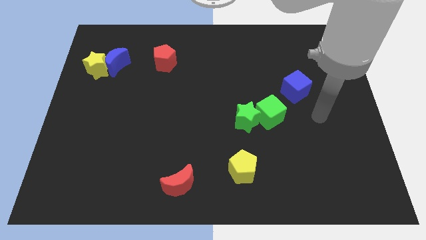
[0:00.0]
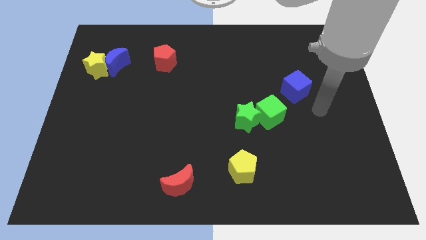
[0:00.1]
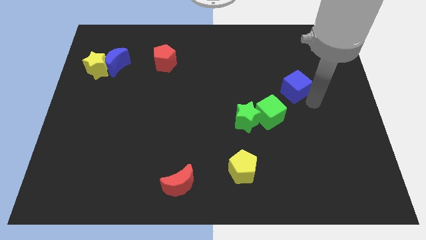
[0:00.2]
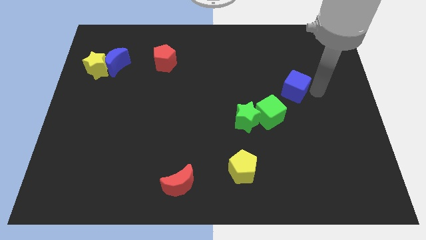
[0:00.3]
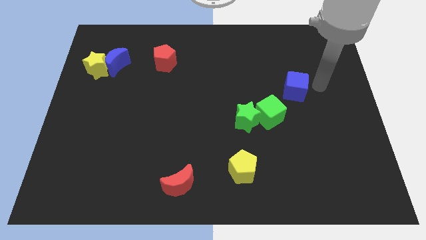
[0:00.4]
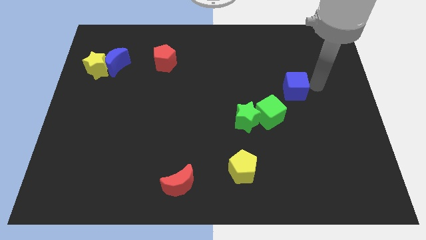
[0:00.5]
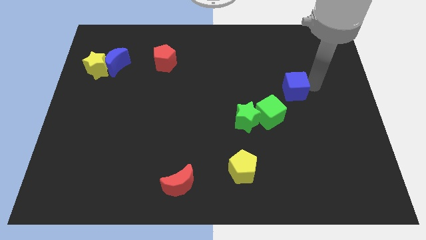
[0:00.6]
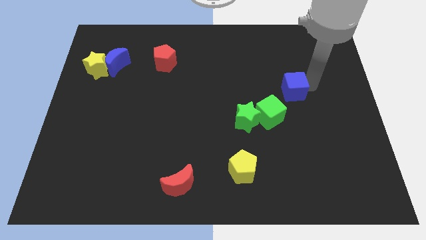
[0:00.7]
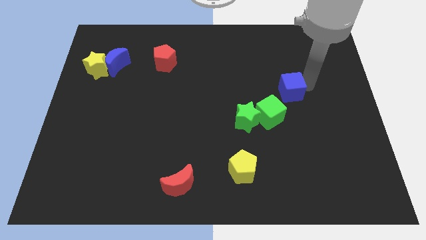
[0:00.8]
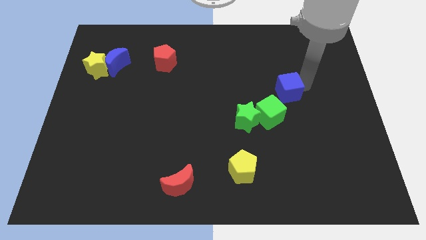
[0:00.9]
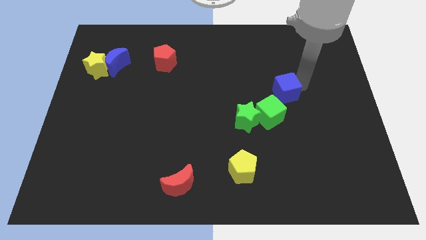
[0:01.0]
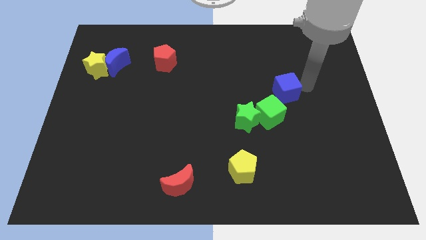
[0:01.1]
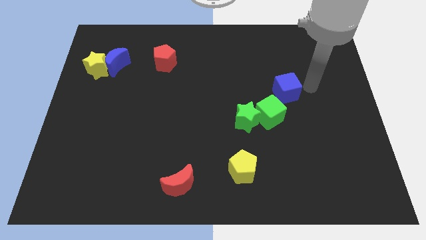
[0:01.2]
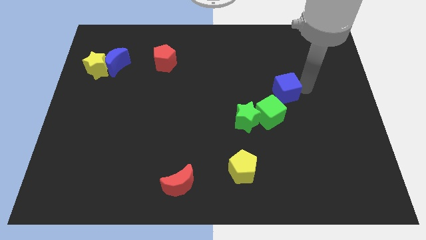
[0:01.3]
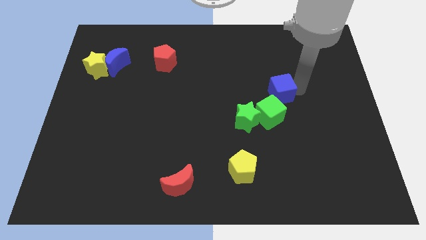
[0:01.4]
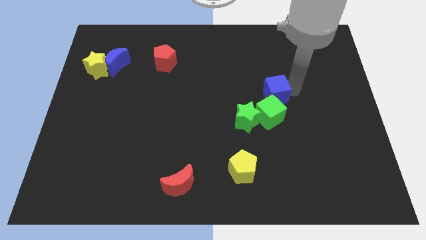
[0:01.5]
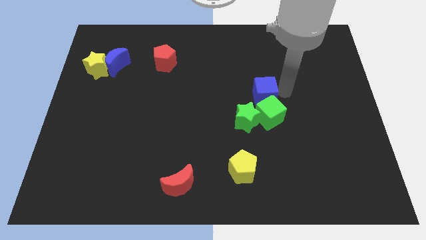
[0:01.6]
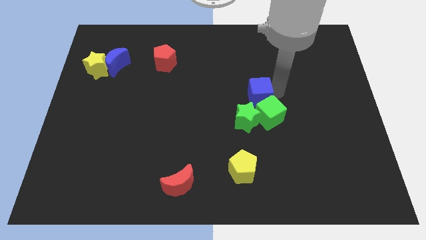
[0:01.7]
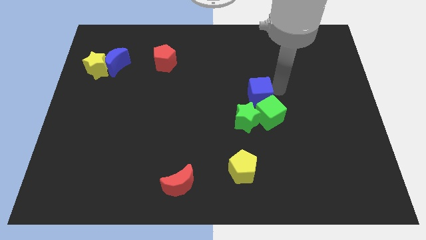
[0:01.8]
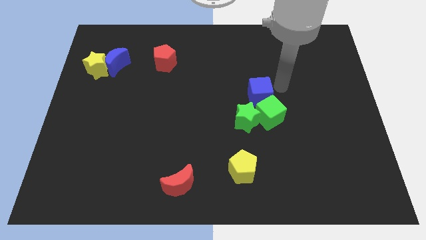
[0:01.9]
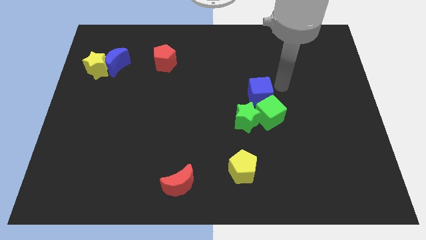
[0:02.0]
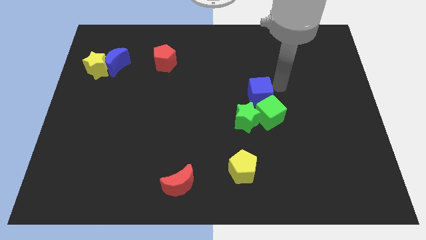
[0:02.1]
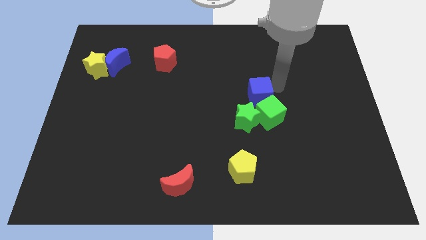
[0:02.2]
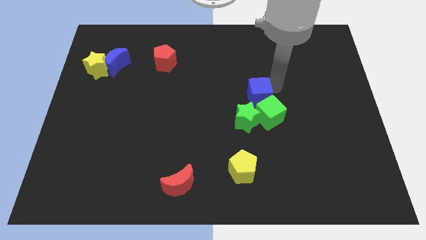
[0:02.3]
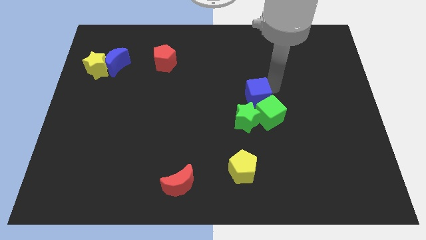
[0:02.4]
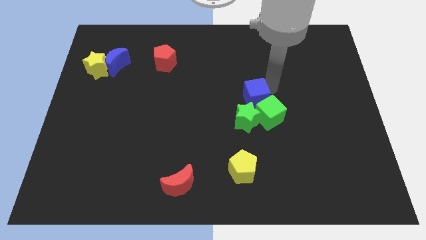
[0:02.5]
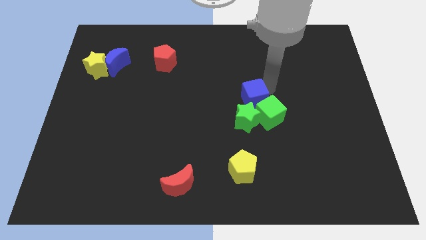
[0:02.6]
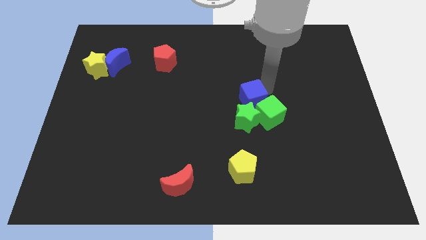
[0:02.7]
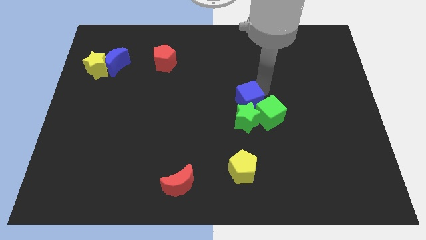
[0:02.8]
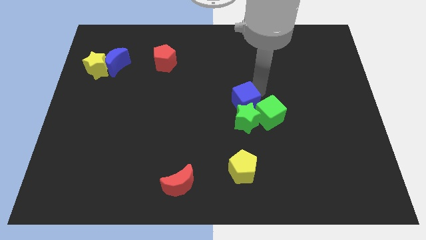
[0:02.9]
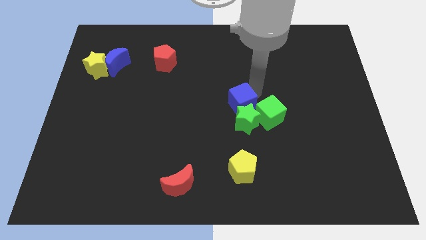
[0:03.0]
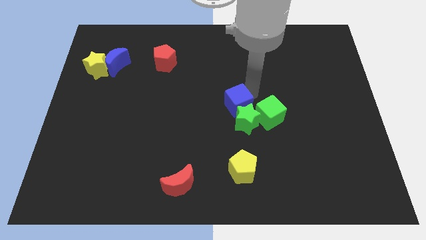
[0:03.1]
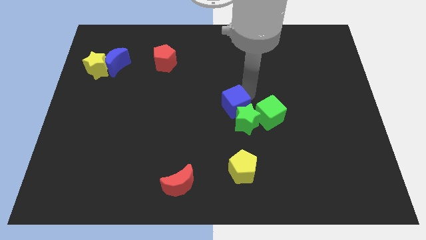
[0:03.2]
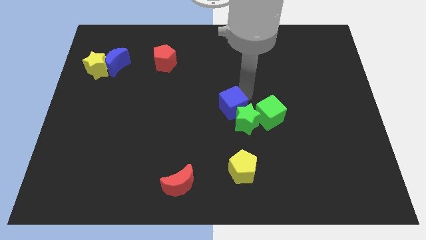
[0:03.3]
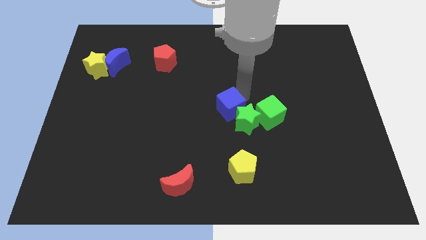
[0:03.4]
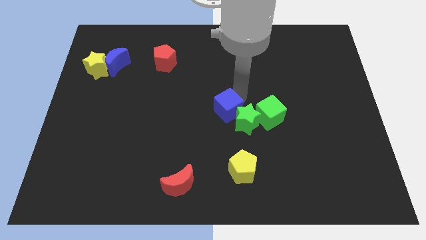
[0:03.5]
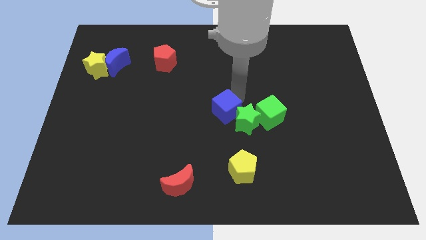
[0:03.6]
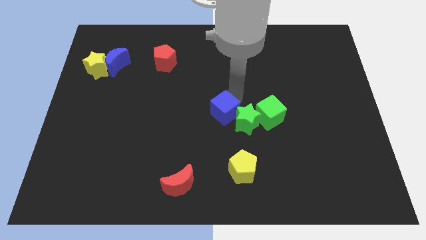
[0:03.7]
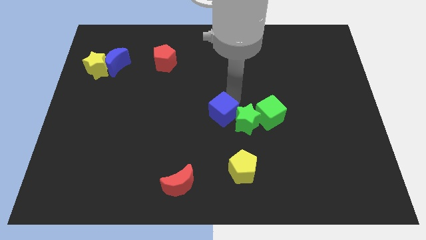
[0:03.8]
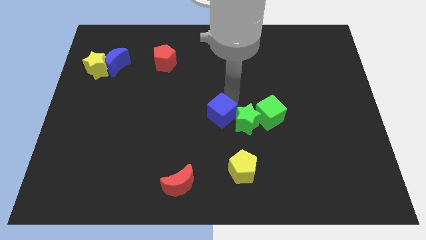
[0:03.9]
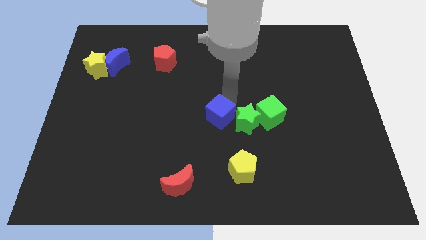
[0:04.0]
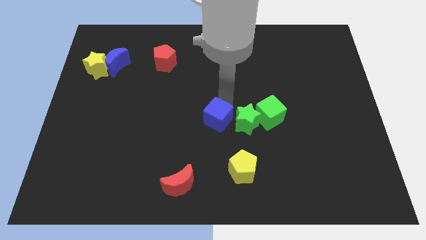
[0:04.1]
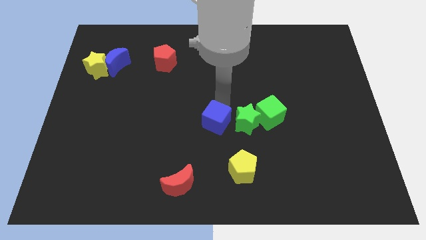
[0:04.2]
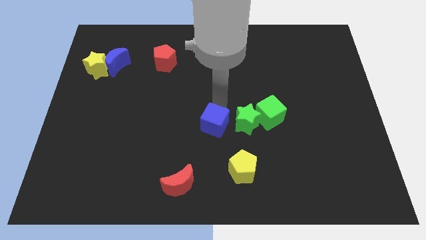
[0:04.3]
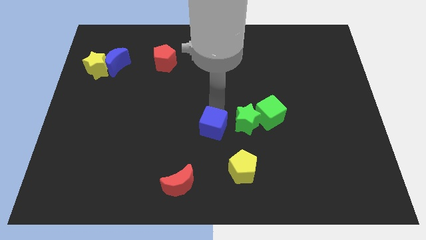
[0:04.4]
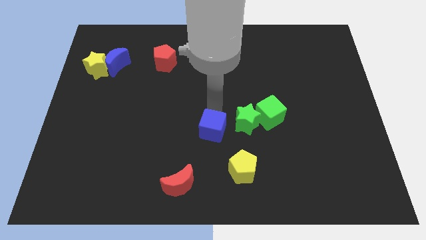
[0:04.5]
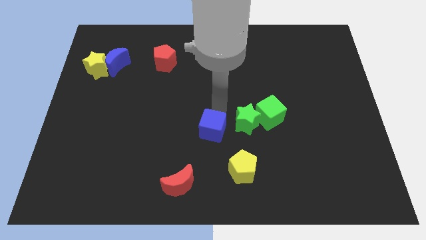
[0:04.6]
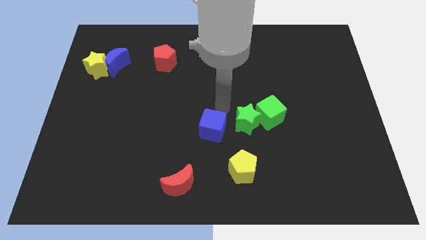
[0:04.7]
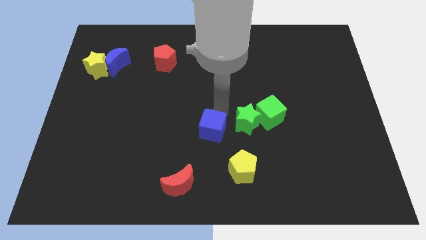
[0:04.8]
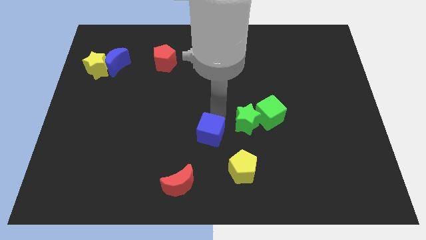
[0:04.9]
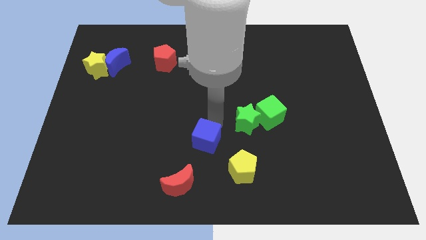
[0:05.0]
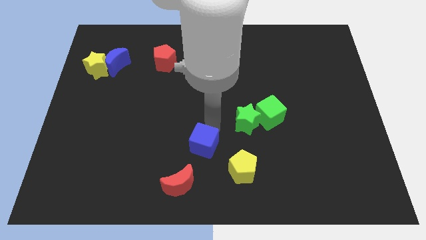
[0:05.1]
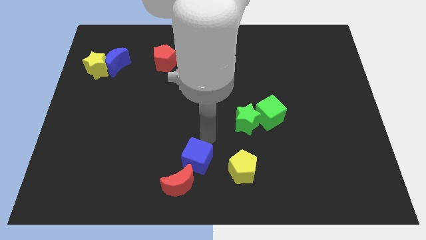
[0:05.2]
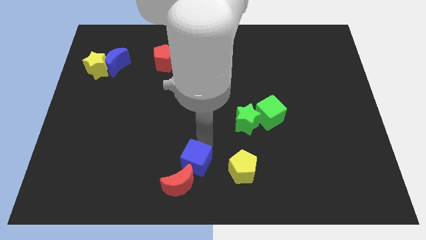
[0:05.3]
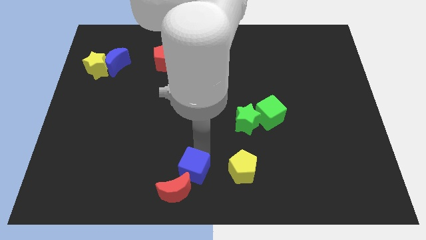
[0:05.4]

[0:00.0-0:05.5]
push the blue cube next to the red moon

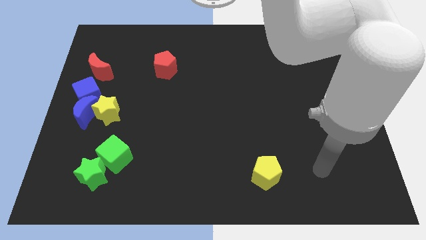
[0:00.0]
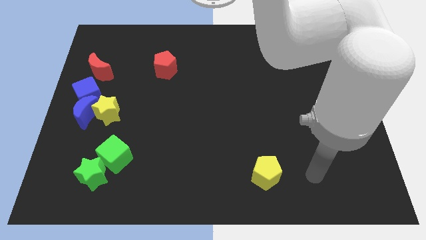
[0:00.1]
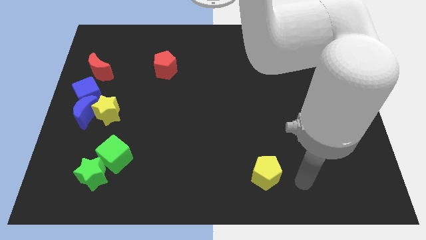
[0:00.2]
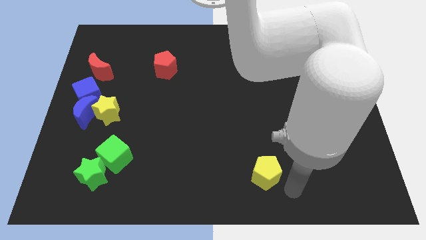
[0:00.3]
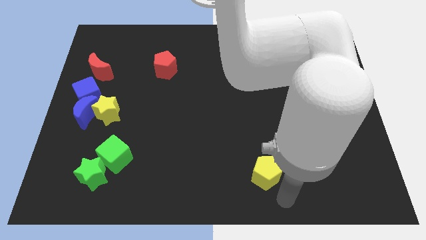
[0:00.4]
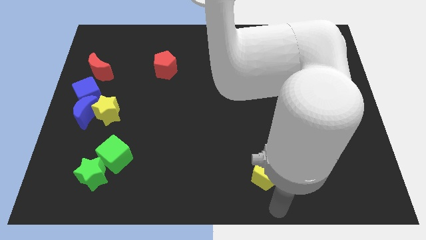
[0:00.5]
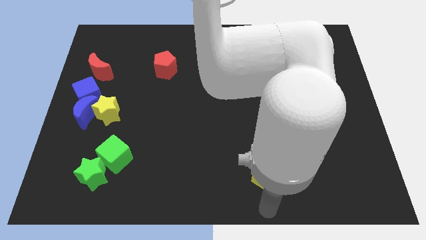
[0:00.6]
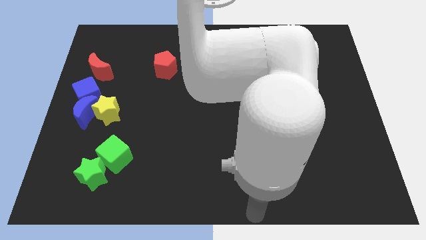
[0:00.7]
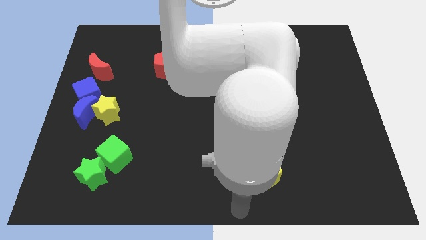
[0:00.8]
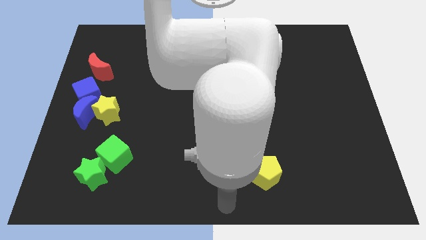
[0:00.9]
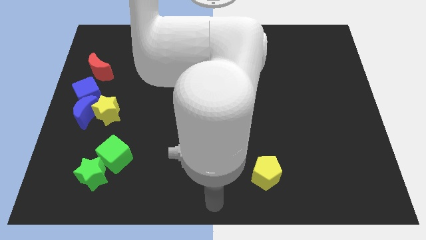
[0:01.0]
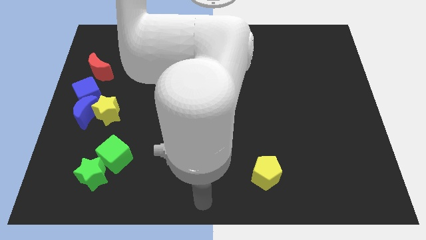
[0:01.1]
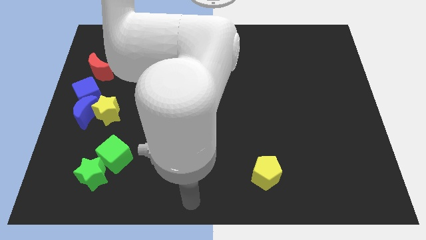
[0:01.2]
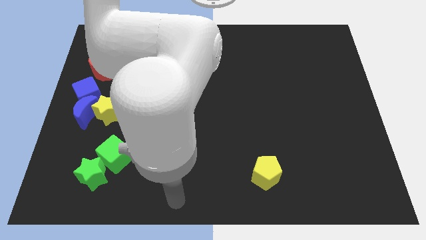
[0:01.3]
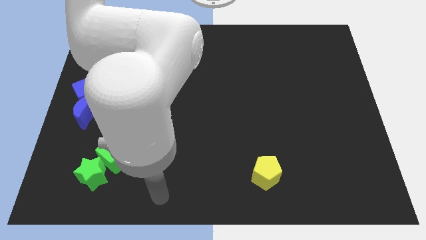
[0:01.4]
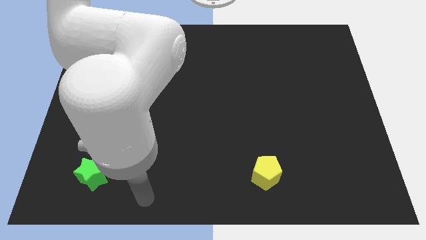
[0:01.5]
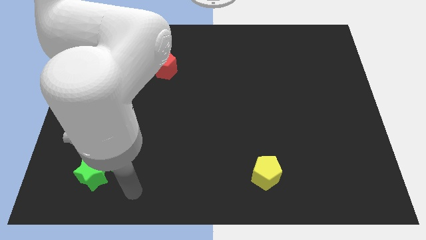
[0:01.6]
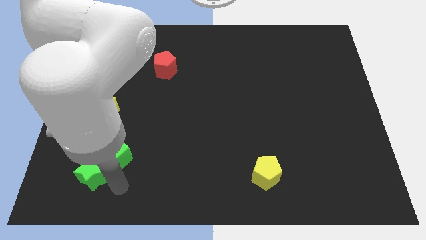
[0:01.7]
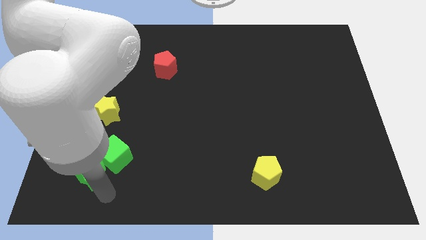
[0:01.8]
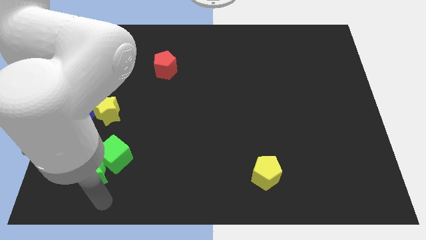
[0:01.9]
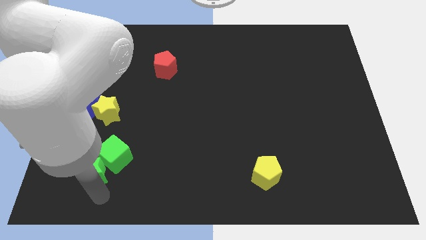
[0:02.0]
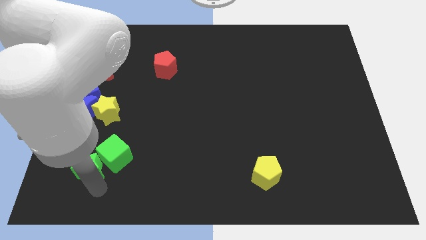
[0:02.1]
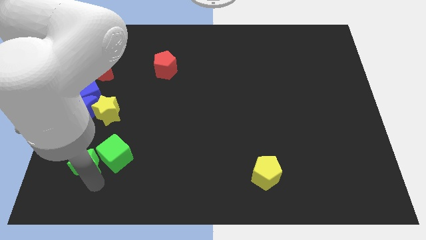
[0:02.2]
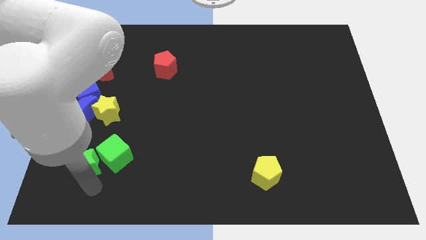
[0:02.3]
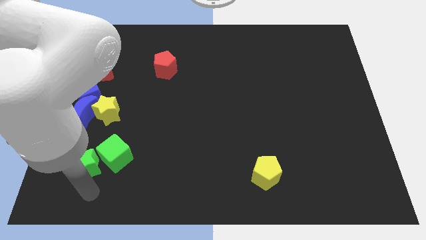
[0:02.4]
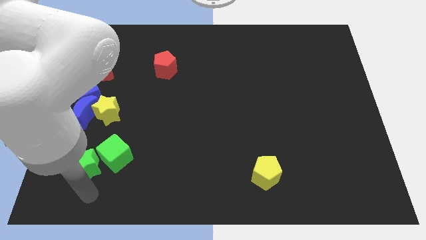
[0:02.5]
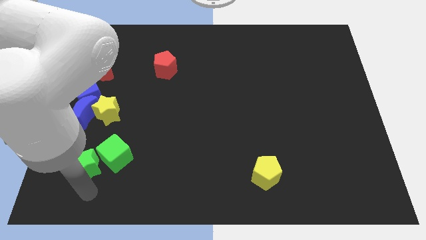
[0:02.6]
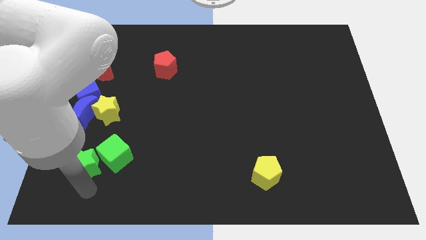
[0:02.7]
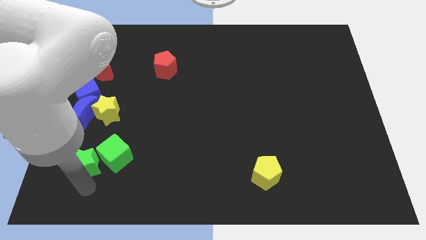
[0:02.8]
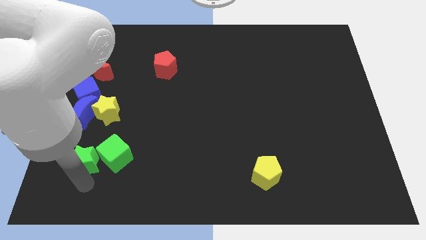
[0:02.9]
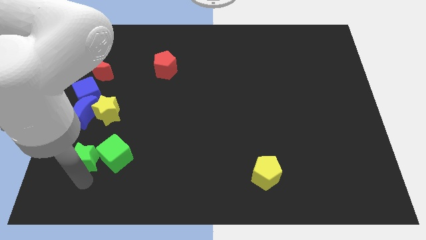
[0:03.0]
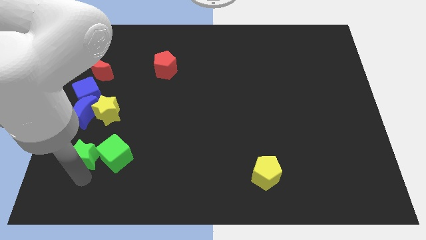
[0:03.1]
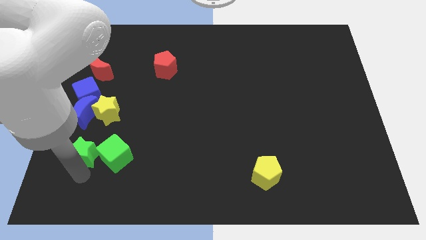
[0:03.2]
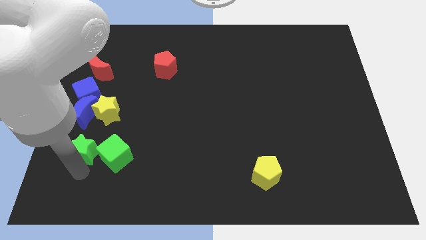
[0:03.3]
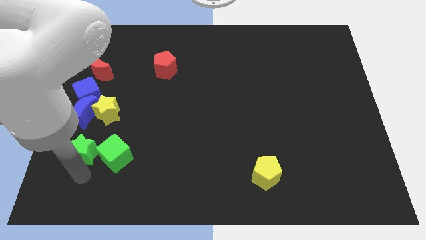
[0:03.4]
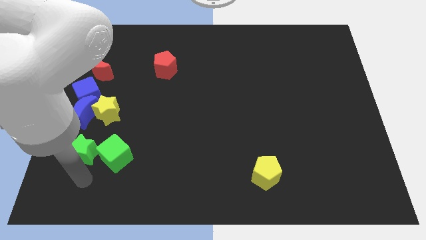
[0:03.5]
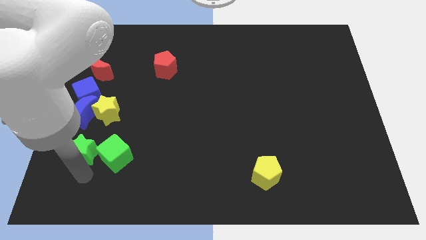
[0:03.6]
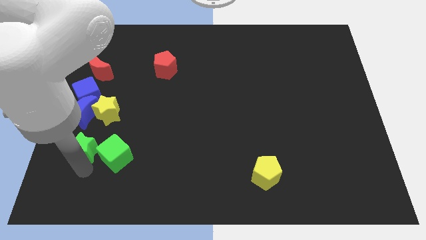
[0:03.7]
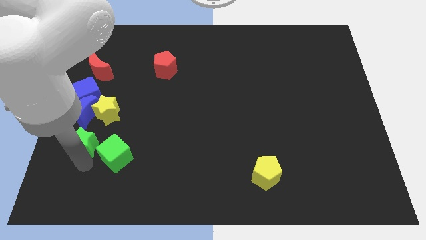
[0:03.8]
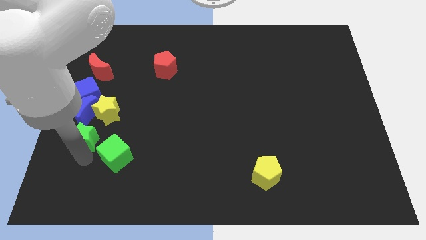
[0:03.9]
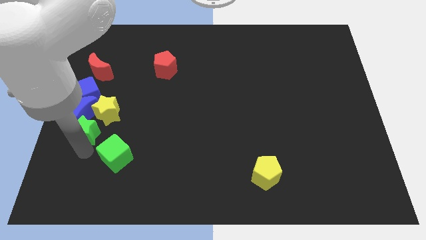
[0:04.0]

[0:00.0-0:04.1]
slide the green star towards the blue moon
